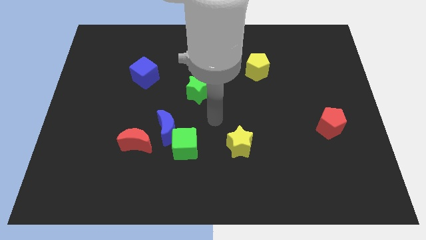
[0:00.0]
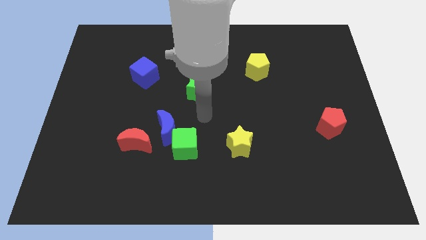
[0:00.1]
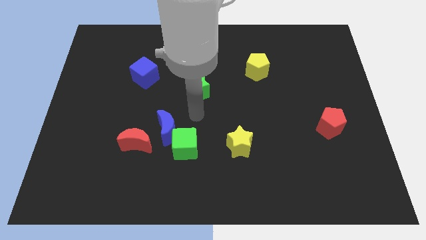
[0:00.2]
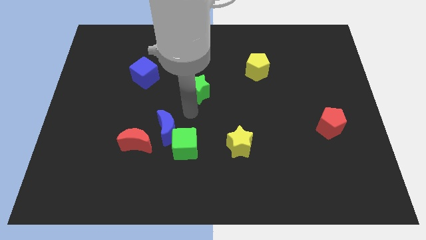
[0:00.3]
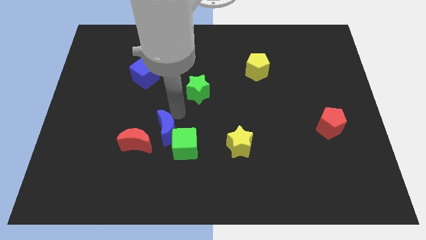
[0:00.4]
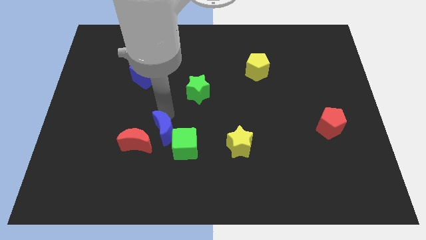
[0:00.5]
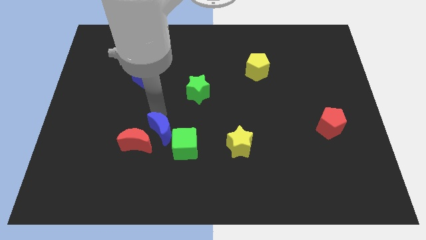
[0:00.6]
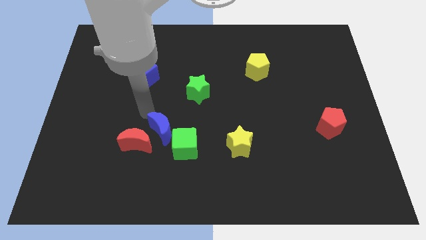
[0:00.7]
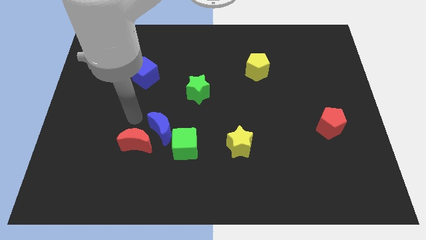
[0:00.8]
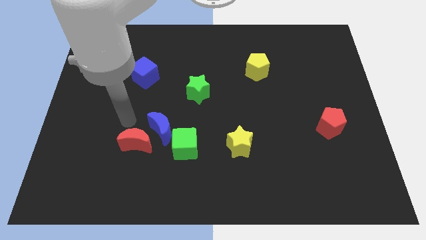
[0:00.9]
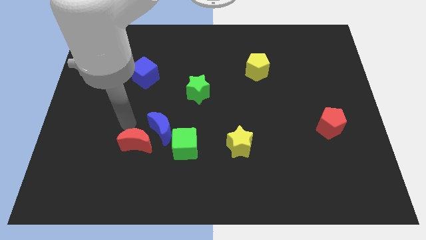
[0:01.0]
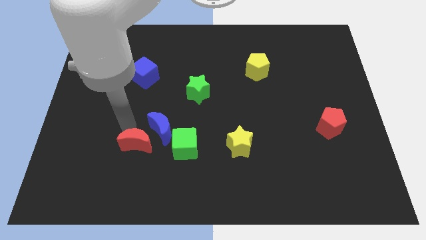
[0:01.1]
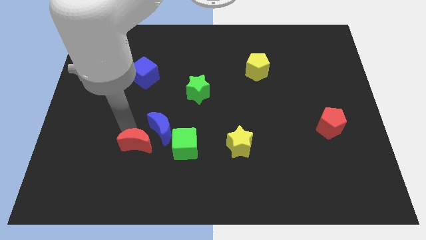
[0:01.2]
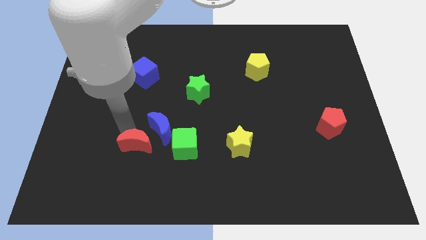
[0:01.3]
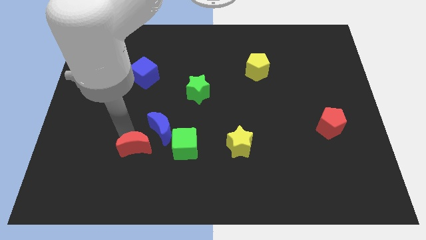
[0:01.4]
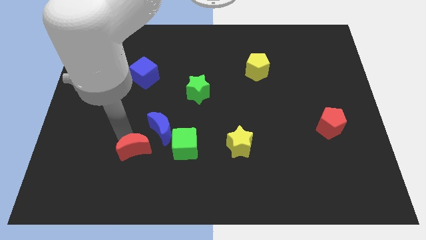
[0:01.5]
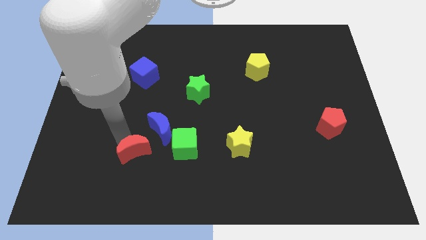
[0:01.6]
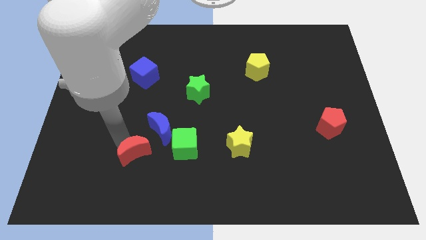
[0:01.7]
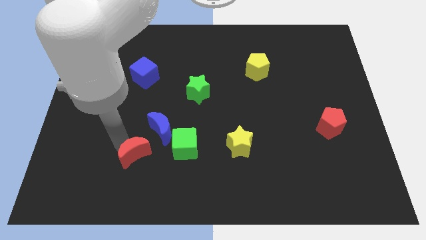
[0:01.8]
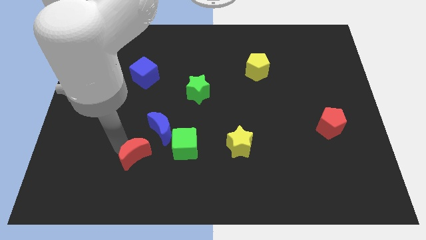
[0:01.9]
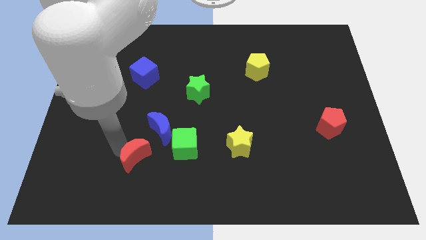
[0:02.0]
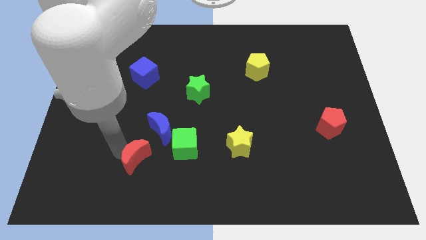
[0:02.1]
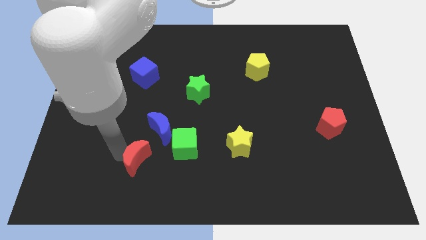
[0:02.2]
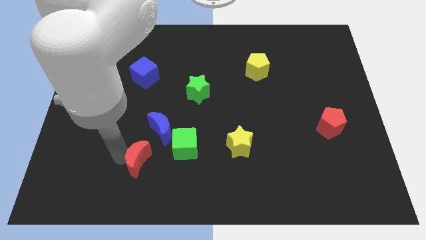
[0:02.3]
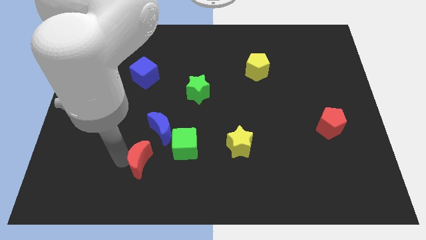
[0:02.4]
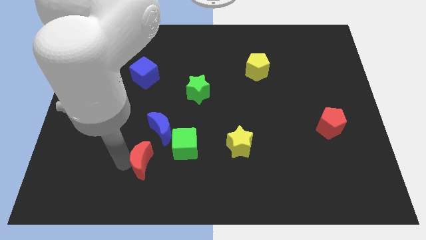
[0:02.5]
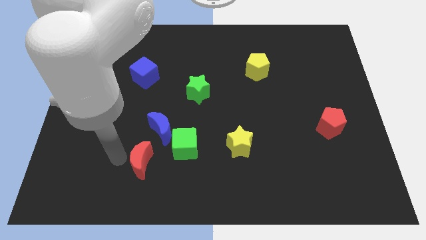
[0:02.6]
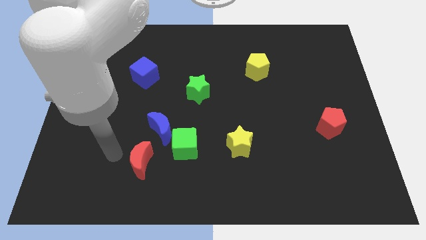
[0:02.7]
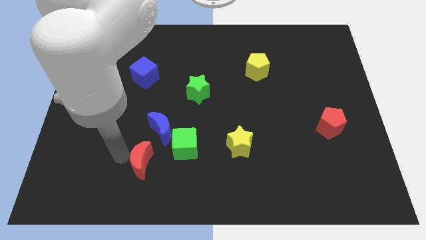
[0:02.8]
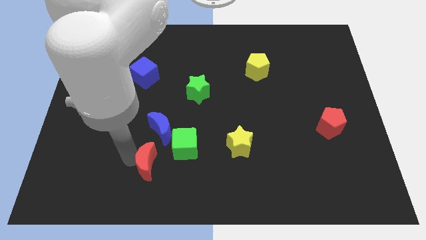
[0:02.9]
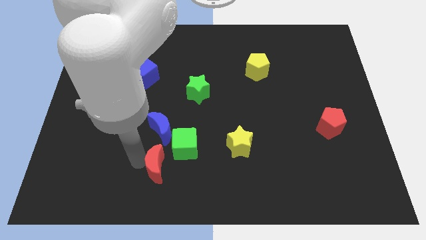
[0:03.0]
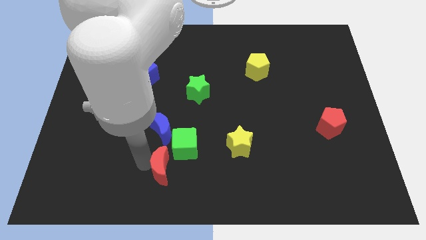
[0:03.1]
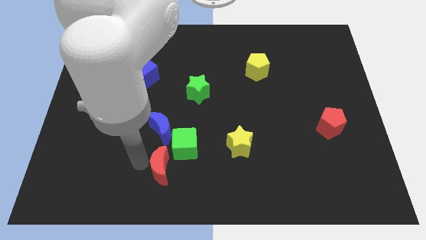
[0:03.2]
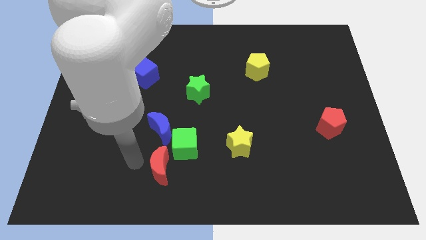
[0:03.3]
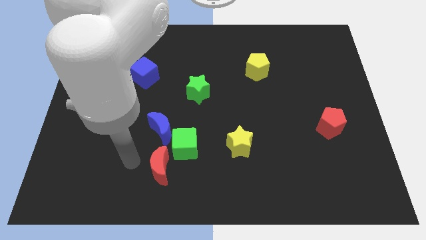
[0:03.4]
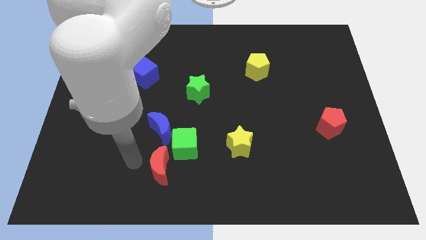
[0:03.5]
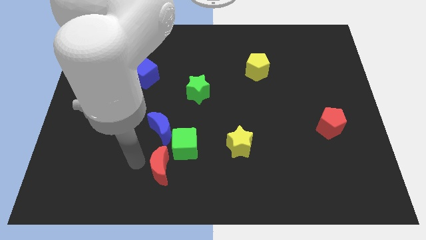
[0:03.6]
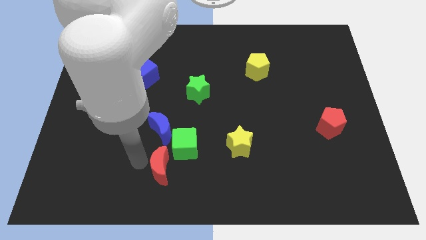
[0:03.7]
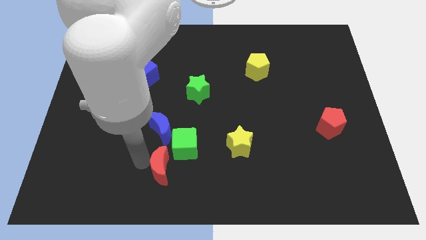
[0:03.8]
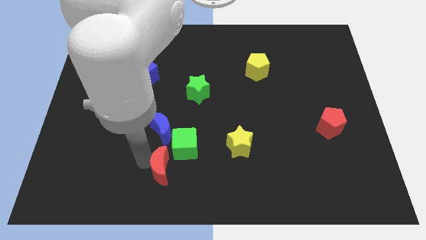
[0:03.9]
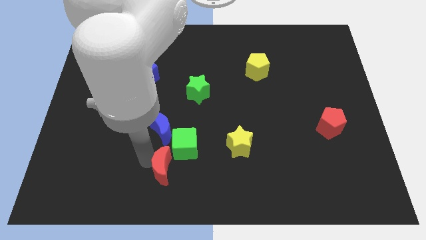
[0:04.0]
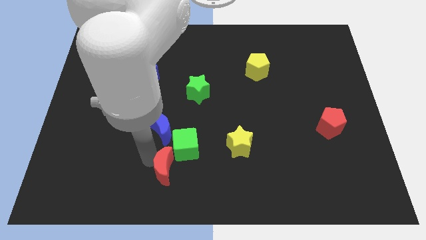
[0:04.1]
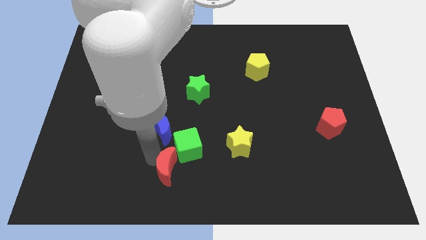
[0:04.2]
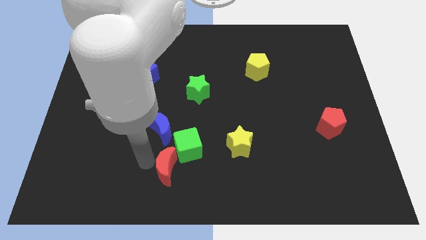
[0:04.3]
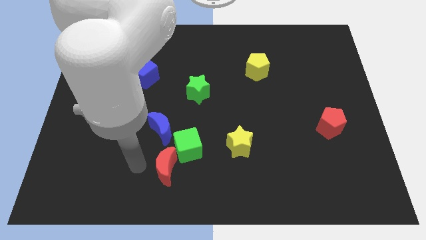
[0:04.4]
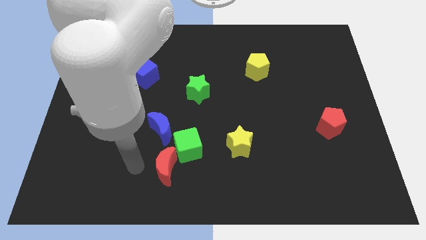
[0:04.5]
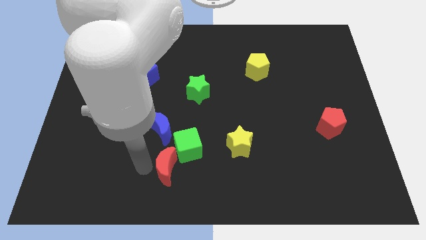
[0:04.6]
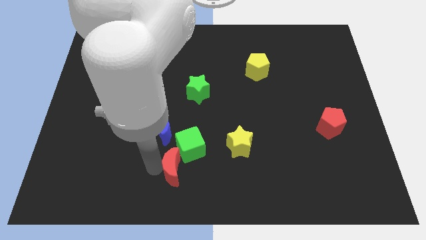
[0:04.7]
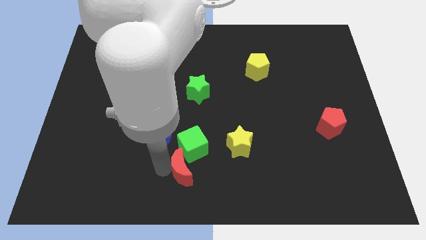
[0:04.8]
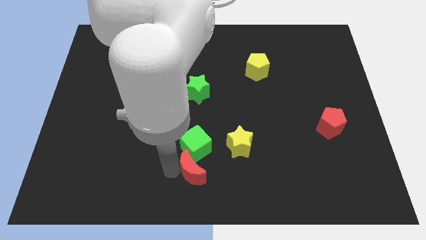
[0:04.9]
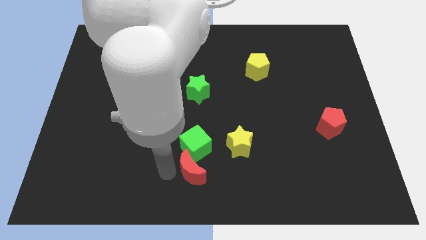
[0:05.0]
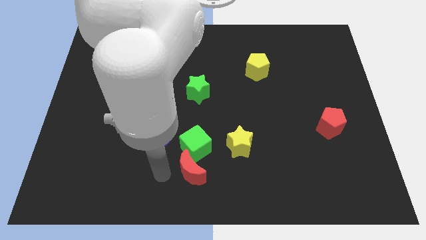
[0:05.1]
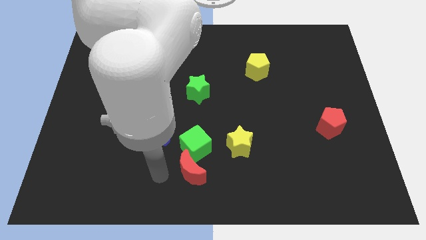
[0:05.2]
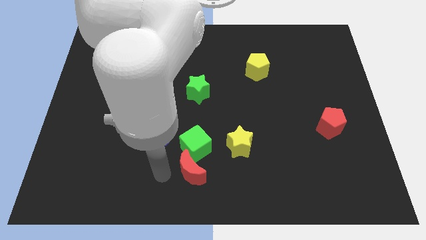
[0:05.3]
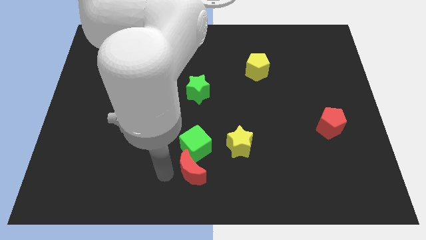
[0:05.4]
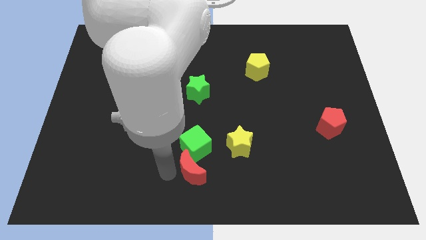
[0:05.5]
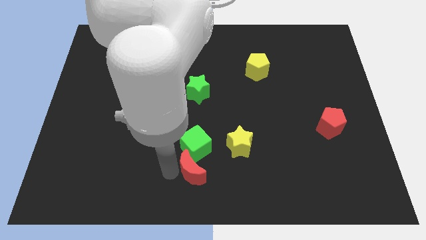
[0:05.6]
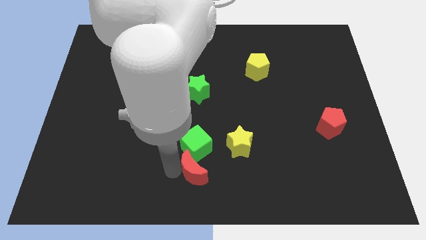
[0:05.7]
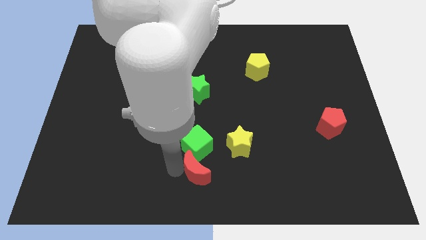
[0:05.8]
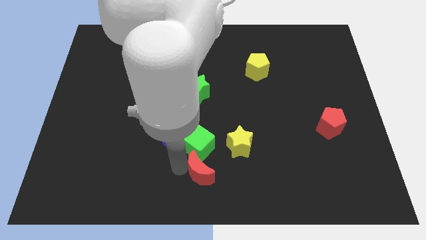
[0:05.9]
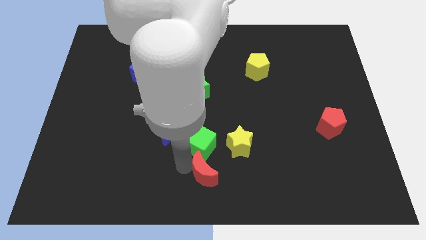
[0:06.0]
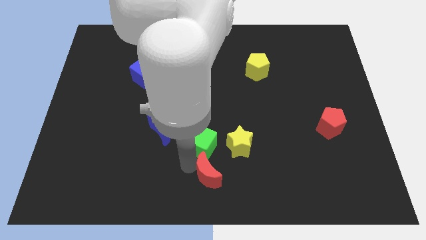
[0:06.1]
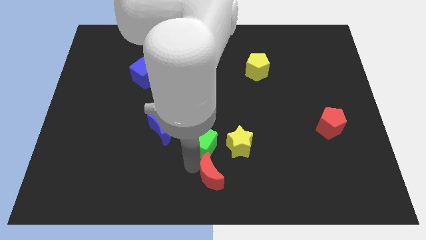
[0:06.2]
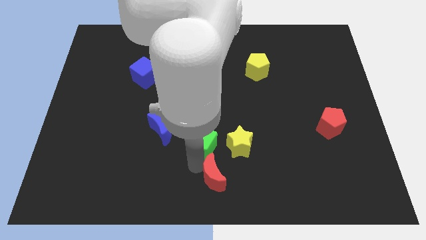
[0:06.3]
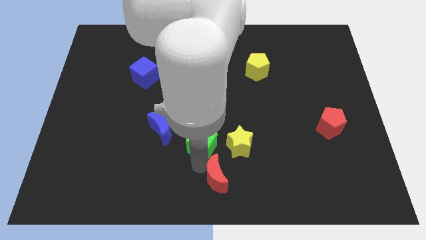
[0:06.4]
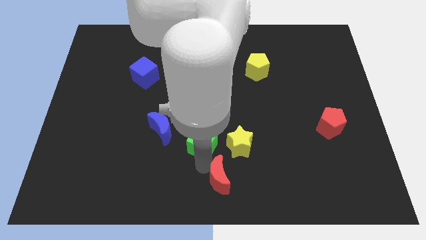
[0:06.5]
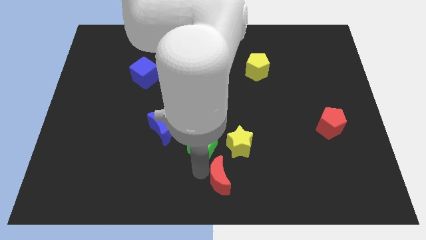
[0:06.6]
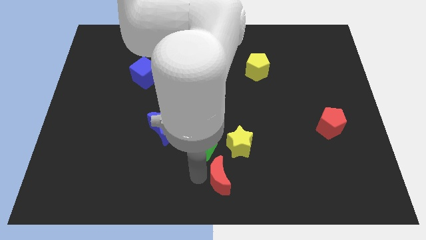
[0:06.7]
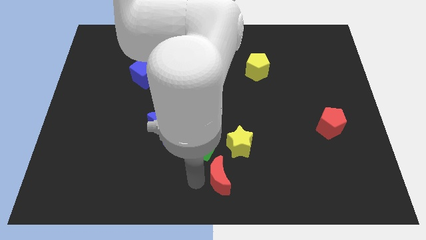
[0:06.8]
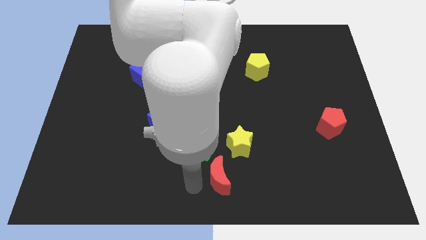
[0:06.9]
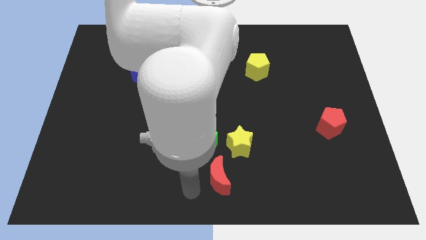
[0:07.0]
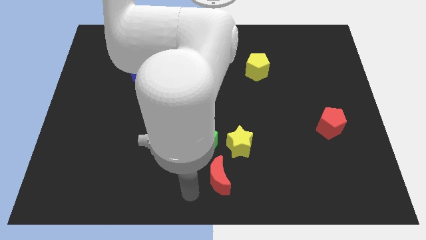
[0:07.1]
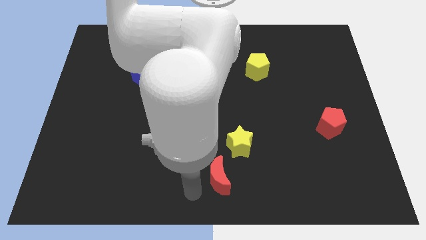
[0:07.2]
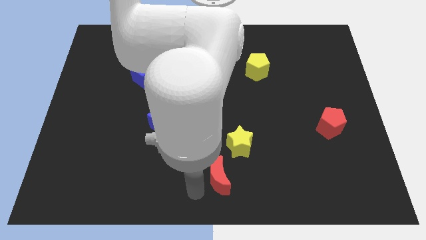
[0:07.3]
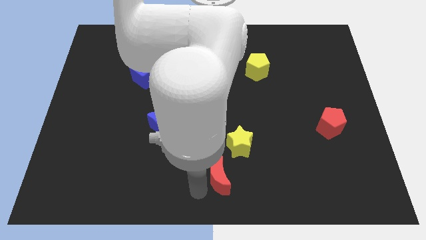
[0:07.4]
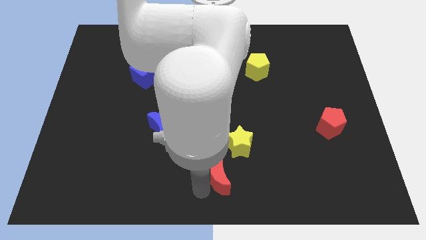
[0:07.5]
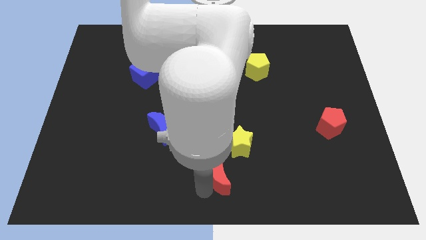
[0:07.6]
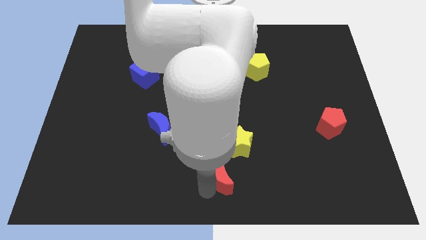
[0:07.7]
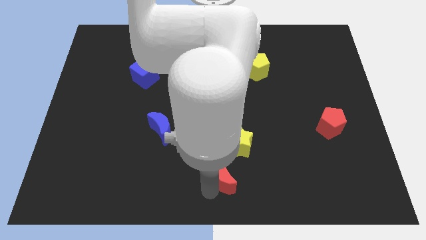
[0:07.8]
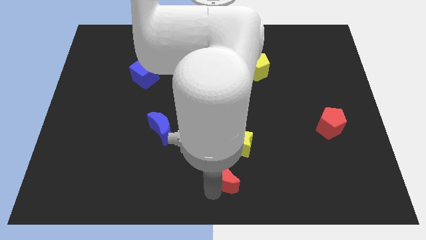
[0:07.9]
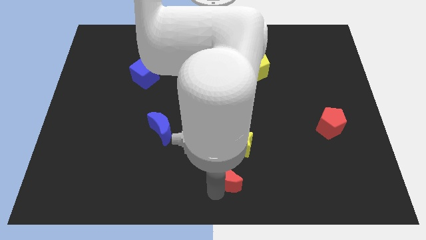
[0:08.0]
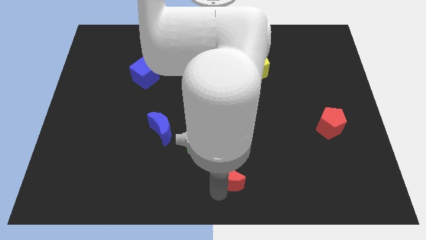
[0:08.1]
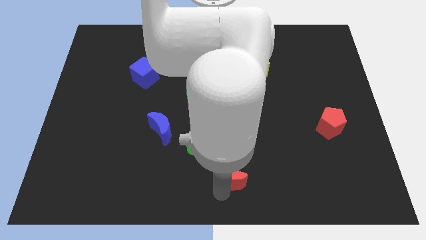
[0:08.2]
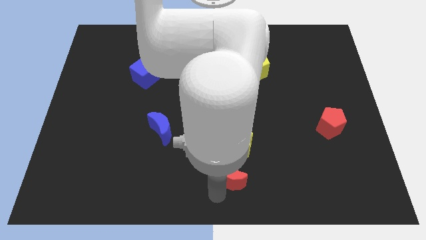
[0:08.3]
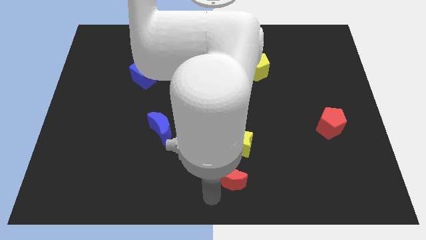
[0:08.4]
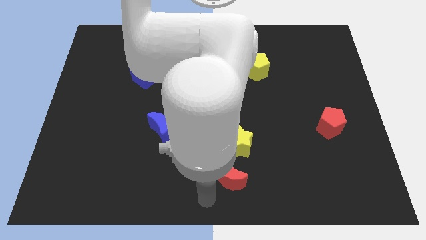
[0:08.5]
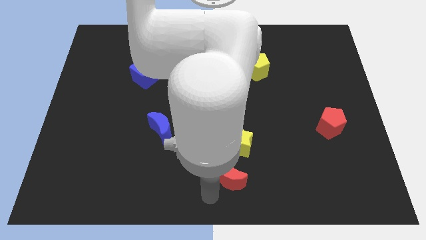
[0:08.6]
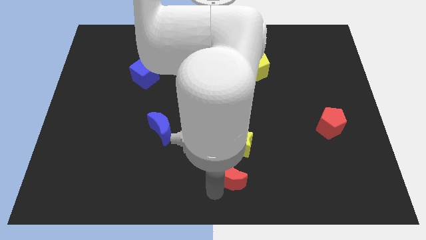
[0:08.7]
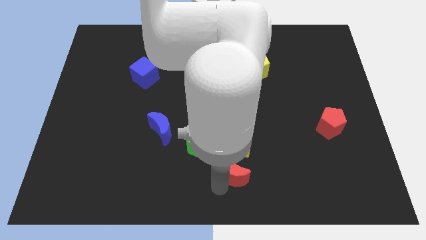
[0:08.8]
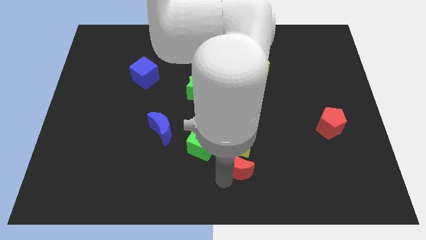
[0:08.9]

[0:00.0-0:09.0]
put the red moon to the bottom right side of the yellow star
